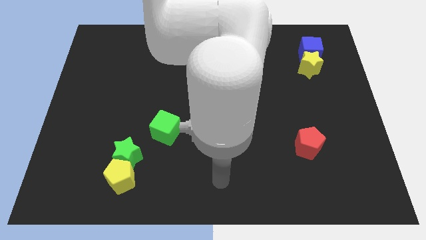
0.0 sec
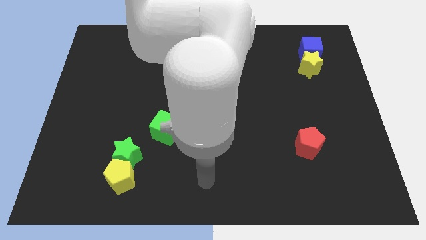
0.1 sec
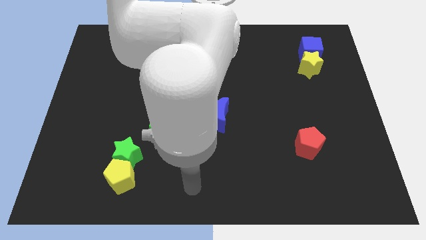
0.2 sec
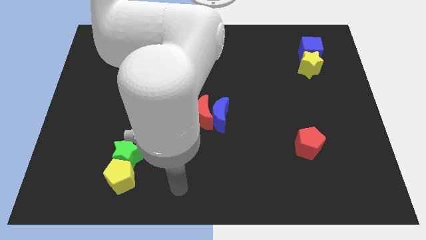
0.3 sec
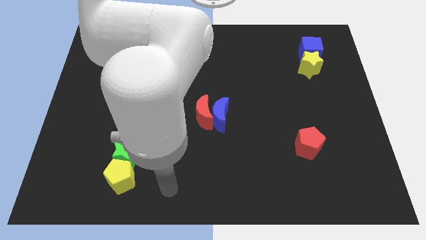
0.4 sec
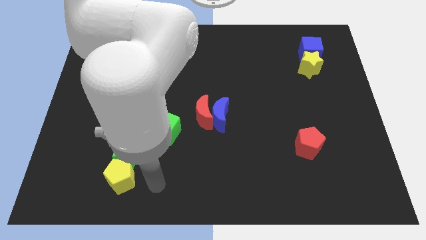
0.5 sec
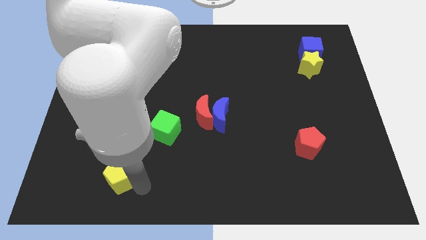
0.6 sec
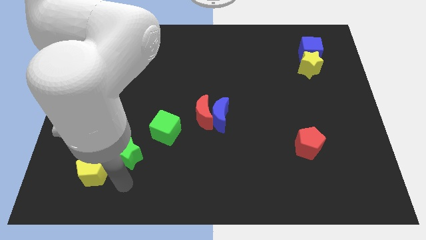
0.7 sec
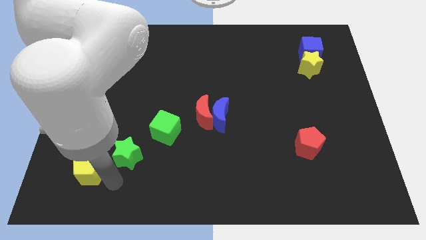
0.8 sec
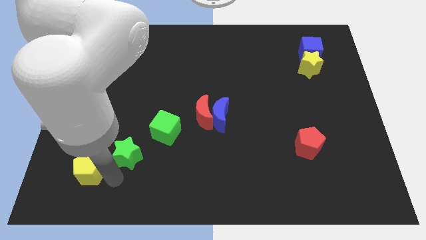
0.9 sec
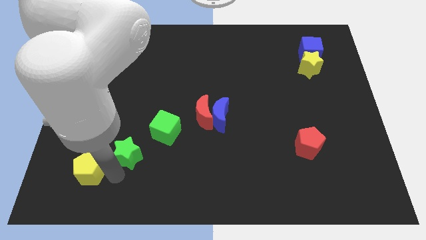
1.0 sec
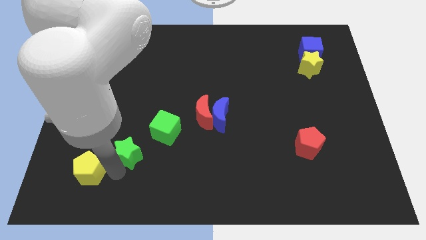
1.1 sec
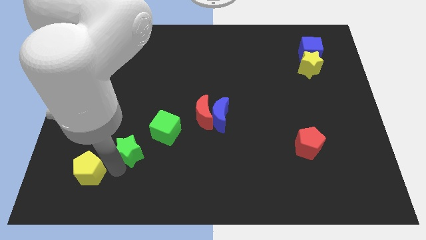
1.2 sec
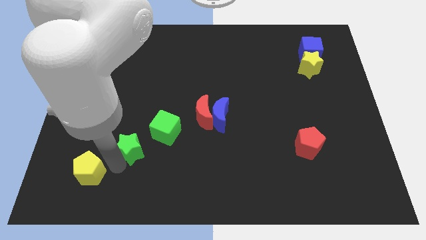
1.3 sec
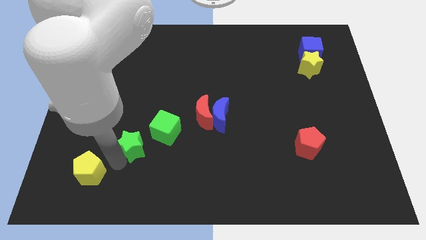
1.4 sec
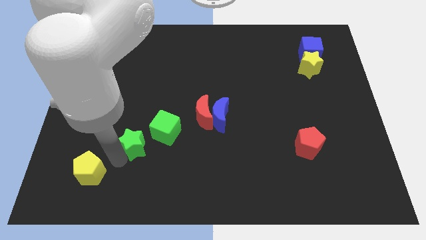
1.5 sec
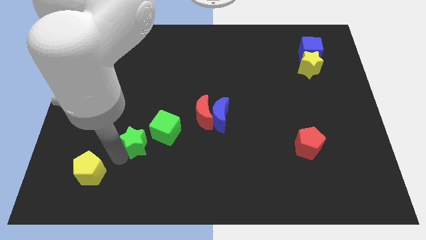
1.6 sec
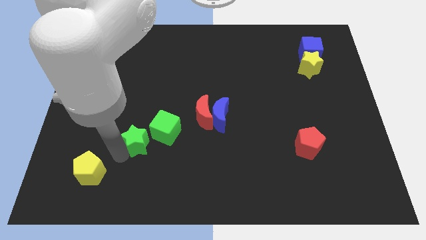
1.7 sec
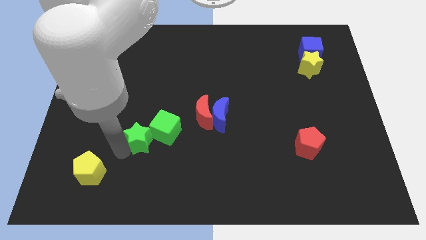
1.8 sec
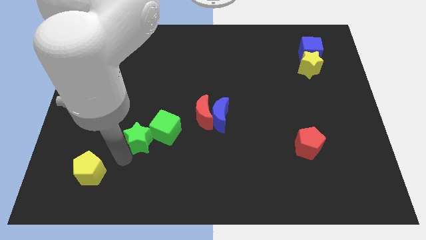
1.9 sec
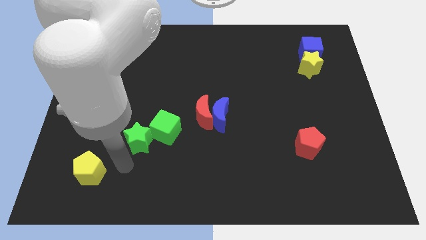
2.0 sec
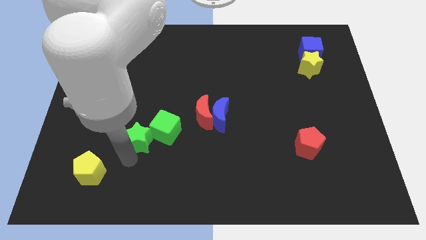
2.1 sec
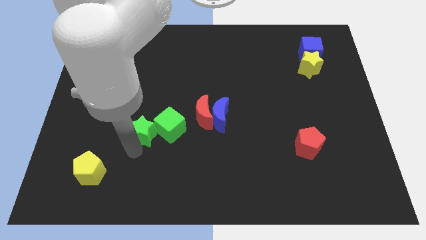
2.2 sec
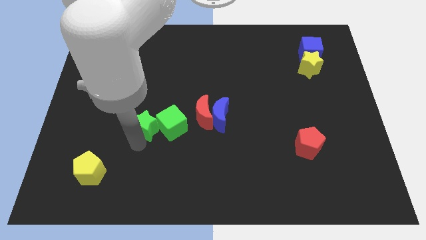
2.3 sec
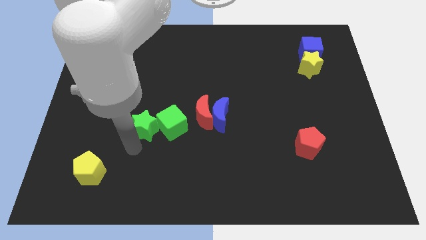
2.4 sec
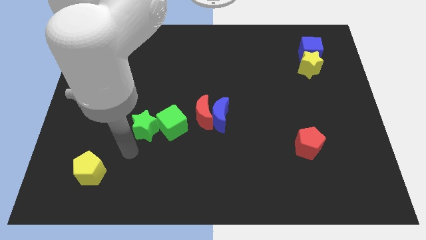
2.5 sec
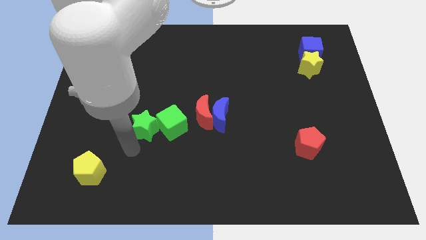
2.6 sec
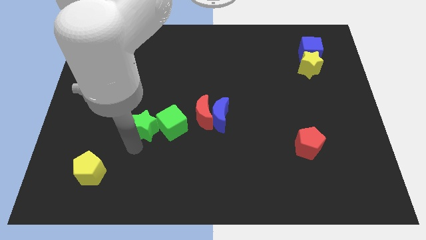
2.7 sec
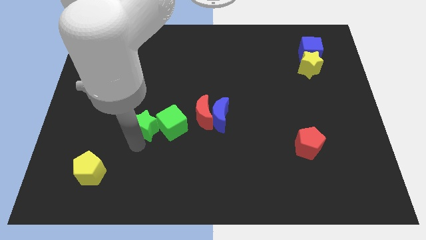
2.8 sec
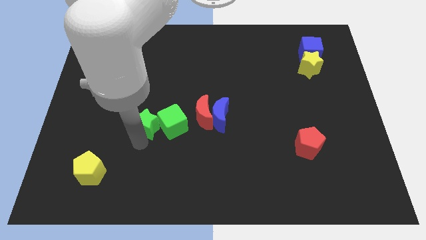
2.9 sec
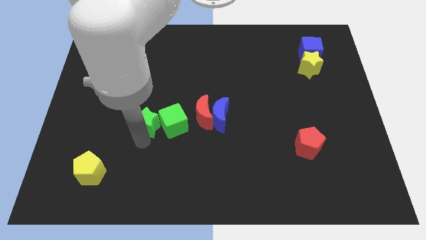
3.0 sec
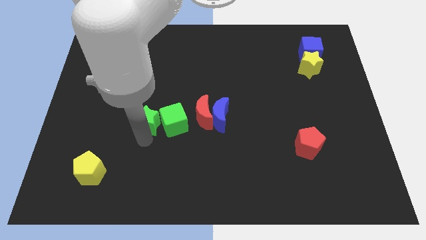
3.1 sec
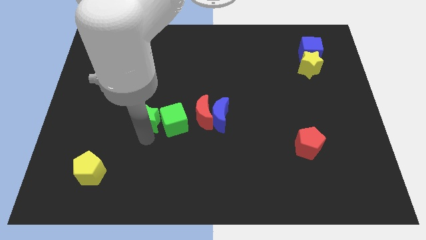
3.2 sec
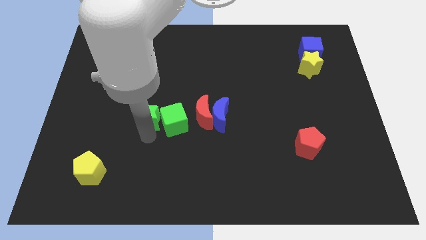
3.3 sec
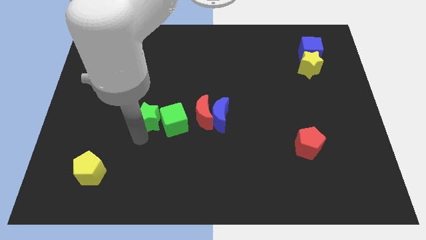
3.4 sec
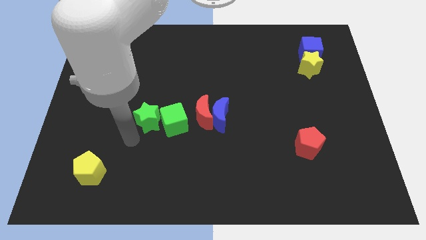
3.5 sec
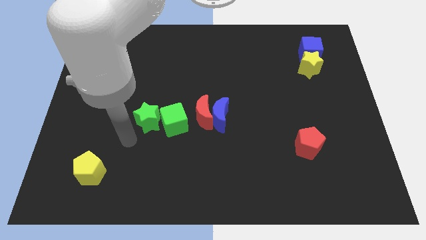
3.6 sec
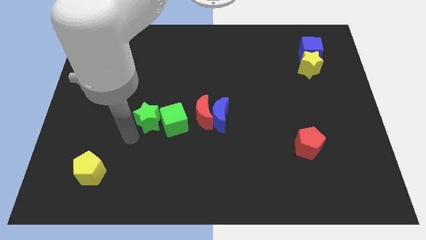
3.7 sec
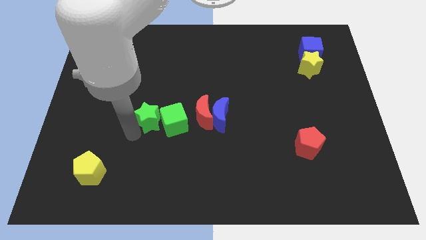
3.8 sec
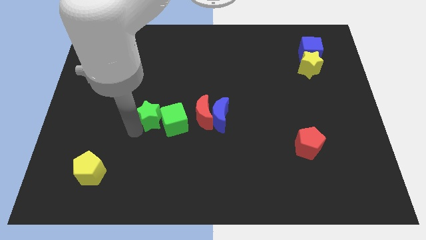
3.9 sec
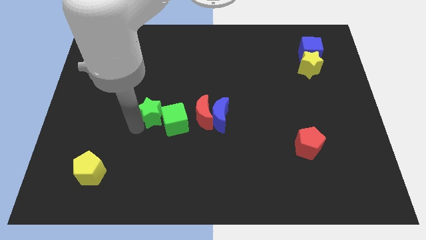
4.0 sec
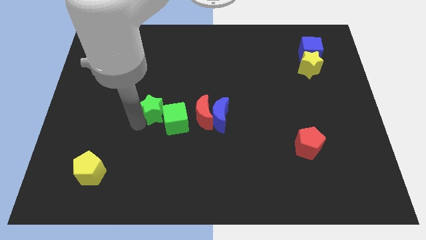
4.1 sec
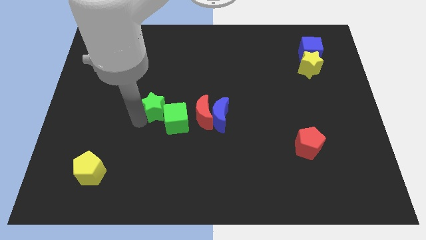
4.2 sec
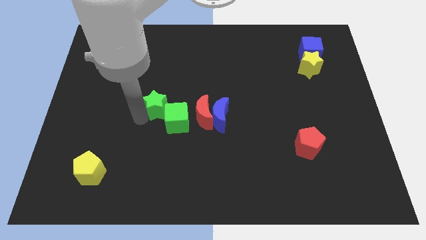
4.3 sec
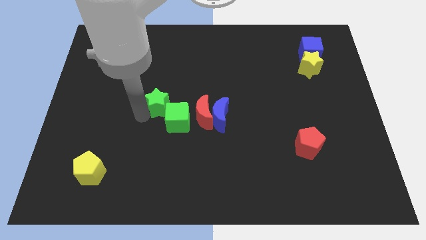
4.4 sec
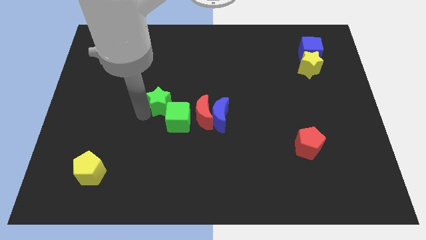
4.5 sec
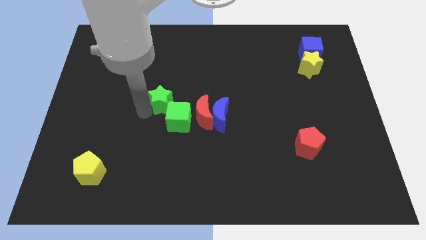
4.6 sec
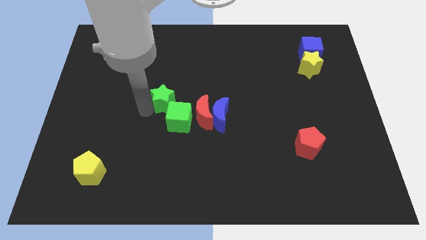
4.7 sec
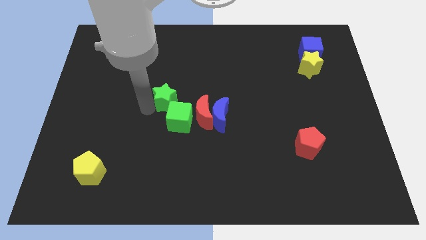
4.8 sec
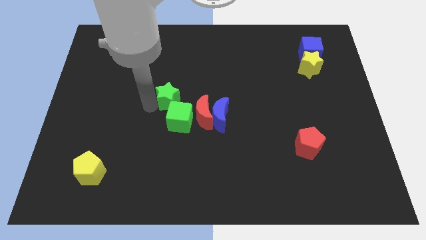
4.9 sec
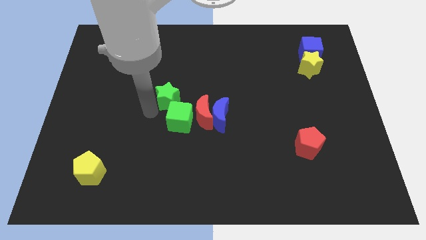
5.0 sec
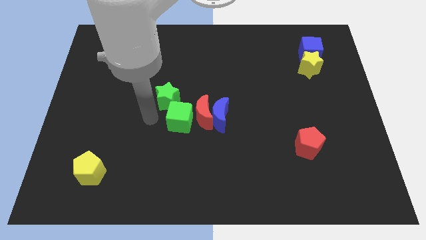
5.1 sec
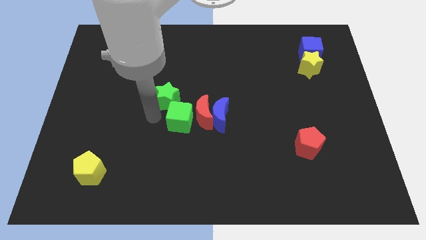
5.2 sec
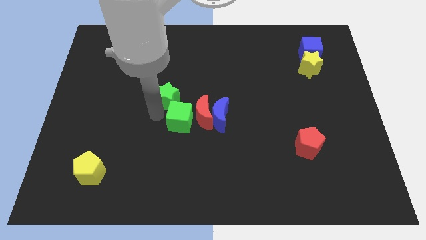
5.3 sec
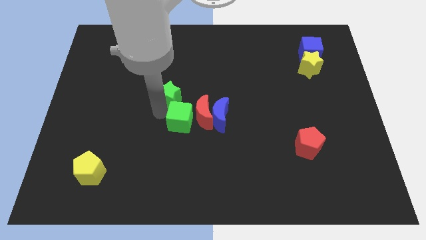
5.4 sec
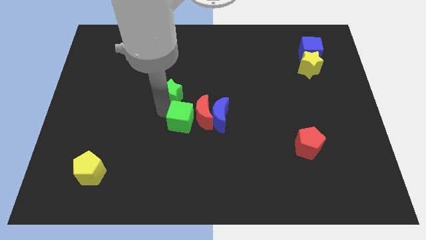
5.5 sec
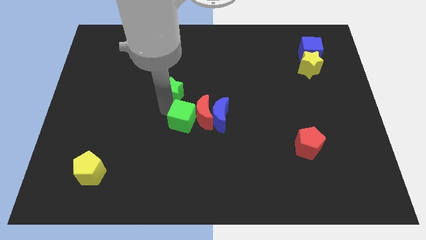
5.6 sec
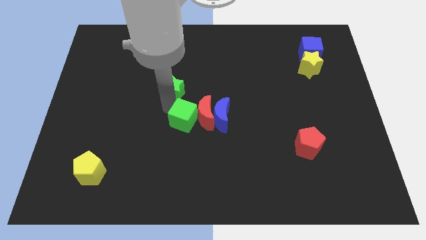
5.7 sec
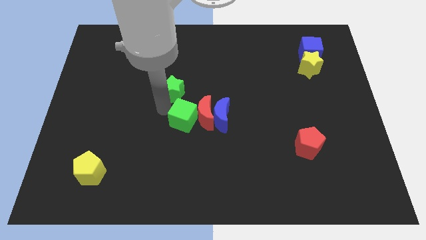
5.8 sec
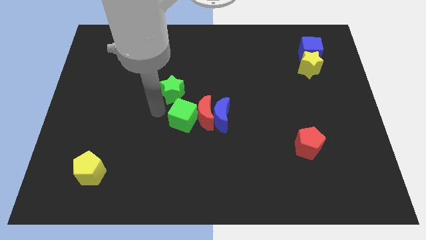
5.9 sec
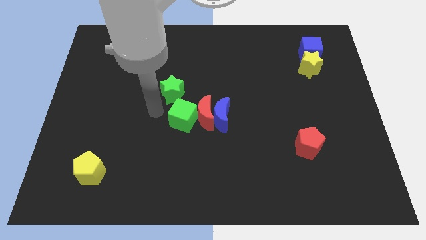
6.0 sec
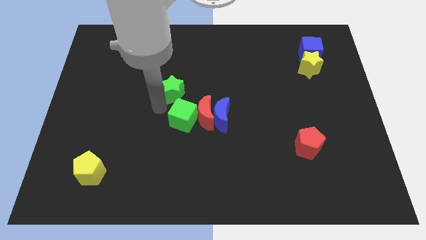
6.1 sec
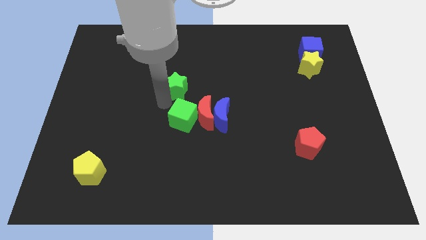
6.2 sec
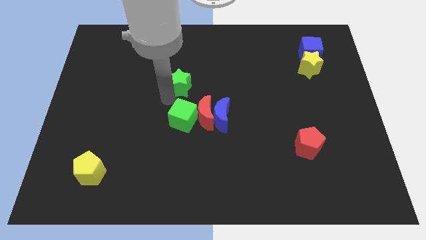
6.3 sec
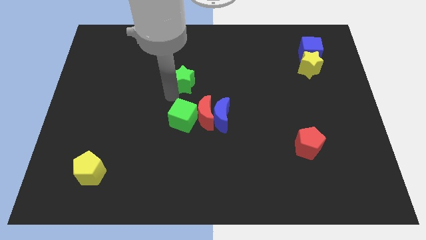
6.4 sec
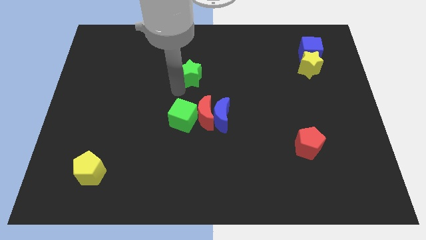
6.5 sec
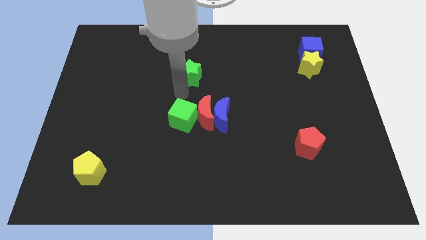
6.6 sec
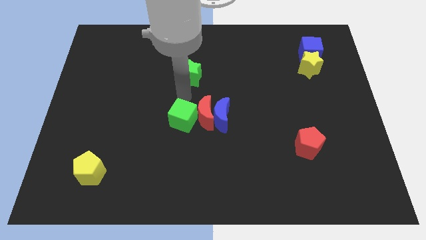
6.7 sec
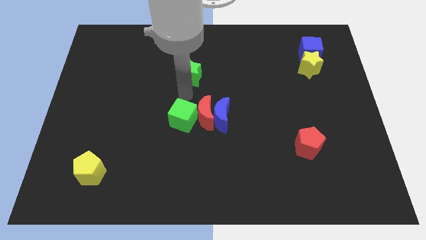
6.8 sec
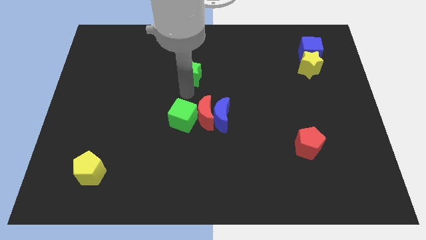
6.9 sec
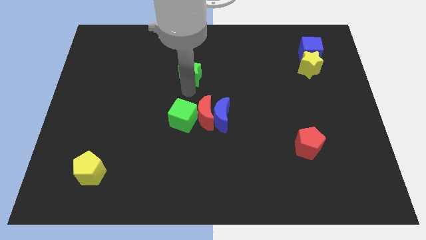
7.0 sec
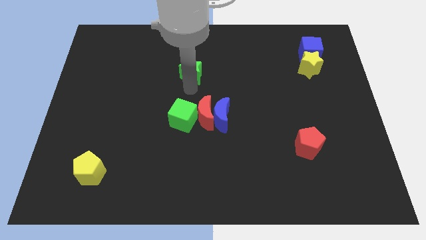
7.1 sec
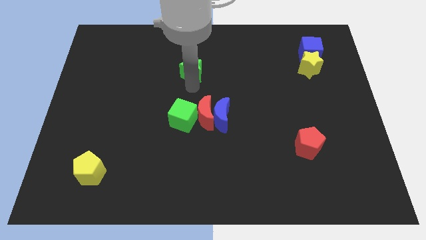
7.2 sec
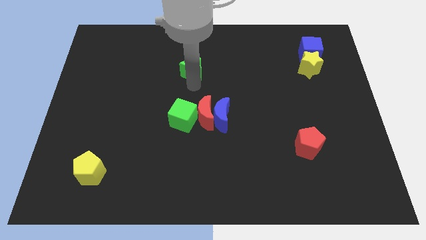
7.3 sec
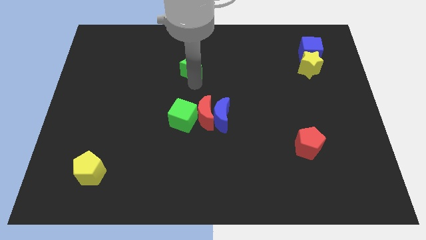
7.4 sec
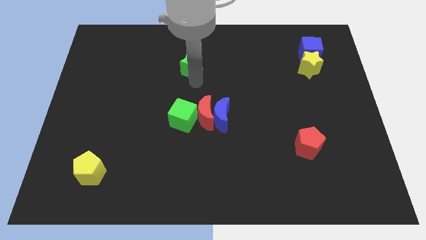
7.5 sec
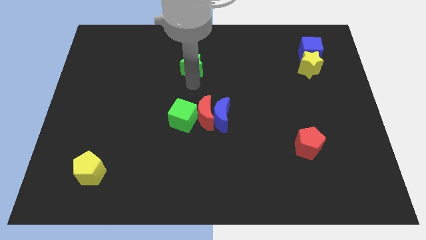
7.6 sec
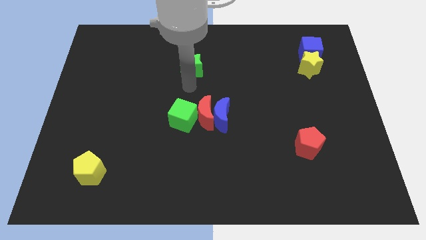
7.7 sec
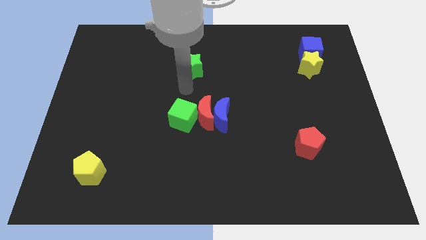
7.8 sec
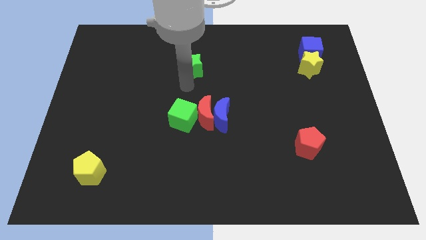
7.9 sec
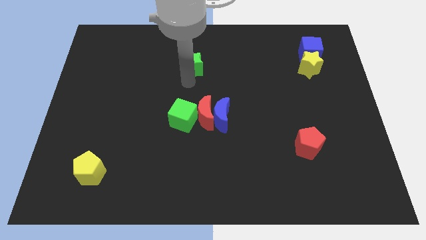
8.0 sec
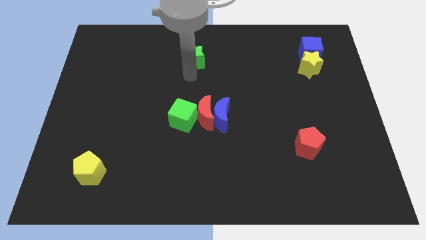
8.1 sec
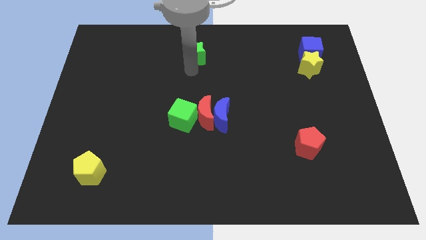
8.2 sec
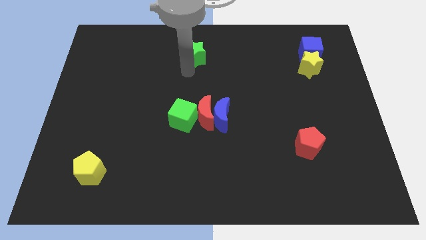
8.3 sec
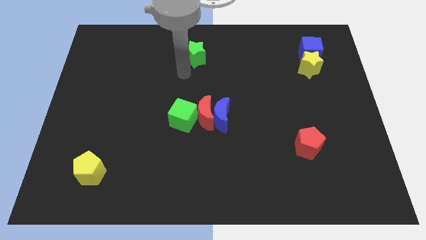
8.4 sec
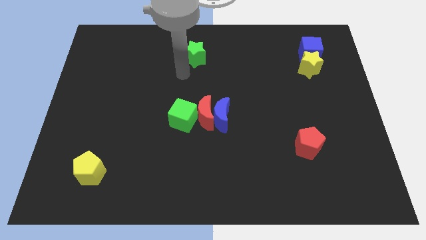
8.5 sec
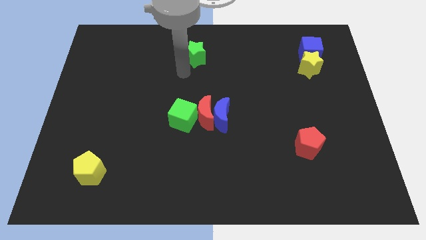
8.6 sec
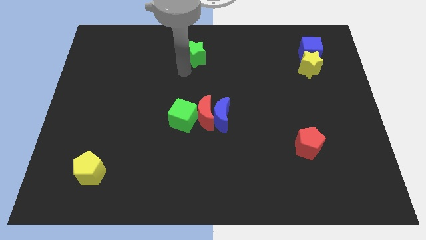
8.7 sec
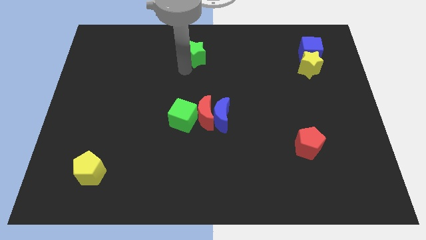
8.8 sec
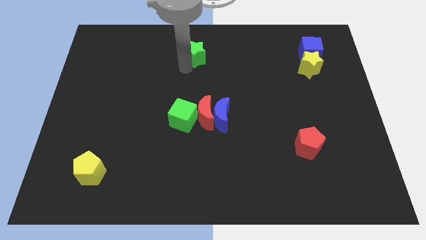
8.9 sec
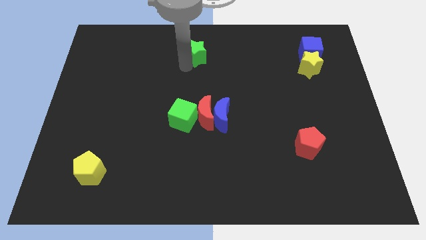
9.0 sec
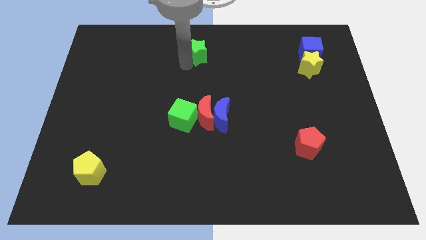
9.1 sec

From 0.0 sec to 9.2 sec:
put the green star to the top side
